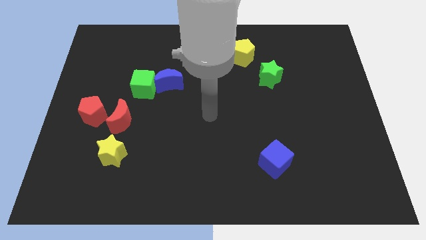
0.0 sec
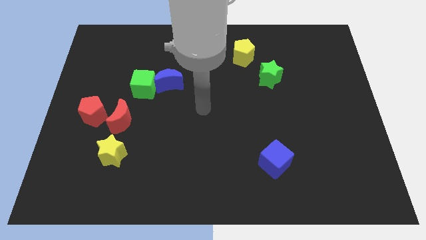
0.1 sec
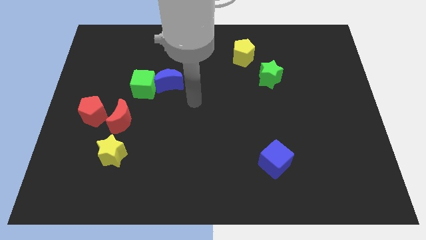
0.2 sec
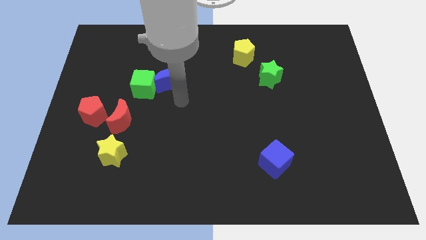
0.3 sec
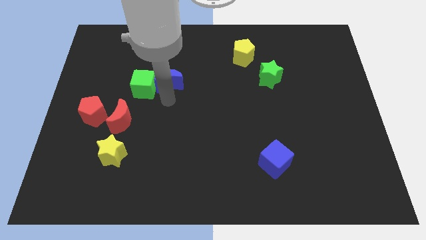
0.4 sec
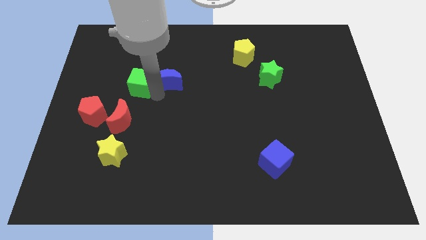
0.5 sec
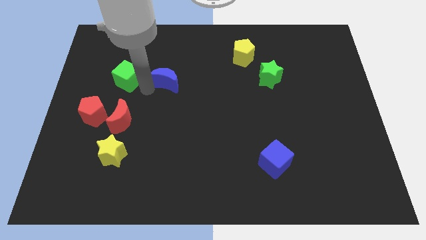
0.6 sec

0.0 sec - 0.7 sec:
separate the blue moon from the green cube

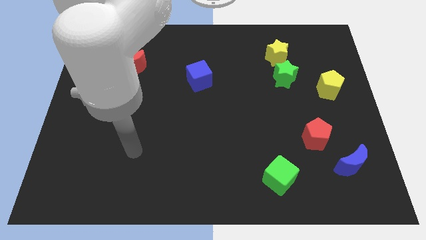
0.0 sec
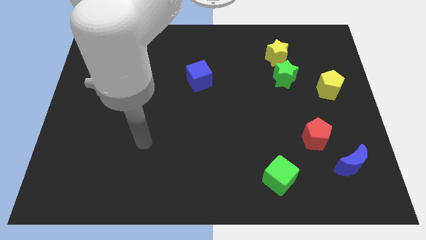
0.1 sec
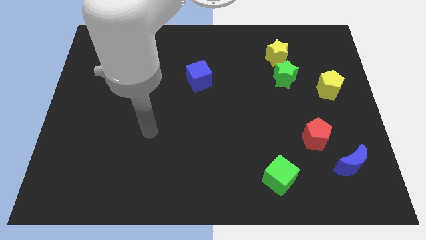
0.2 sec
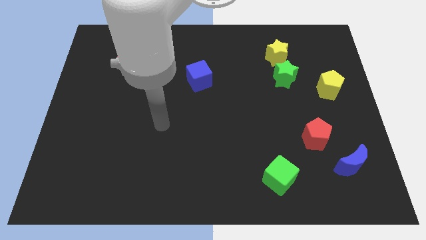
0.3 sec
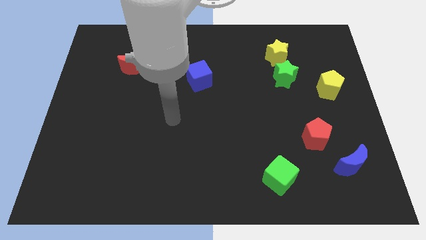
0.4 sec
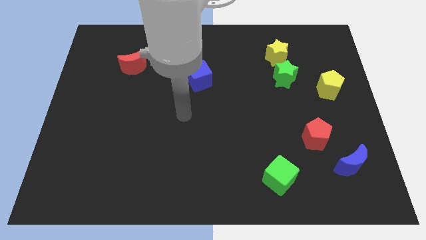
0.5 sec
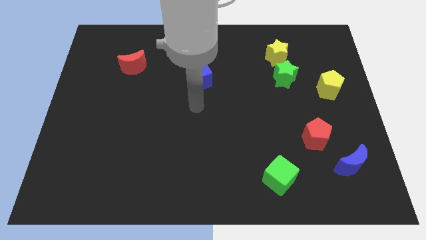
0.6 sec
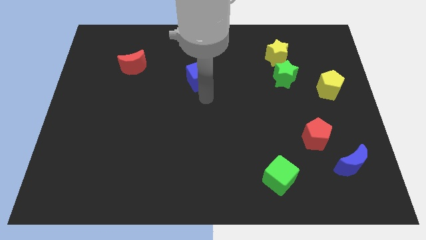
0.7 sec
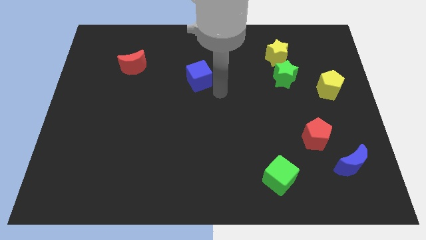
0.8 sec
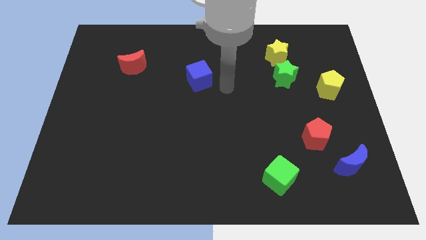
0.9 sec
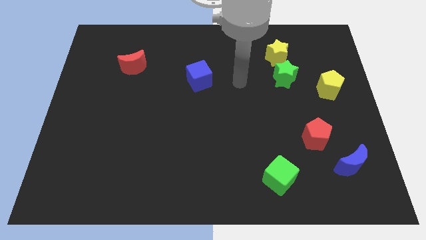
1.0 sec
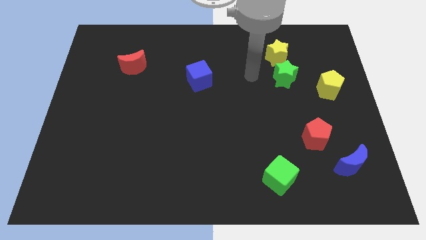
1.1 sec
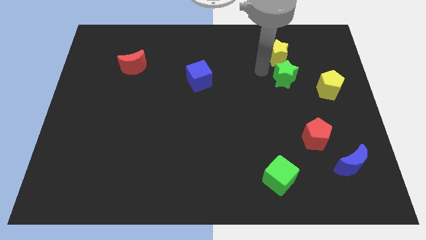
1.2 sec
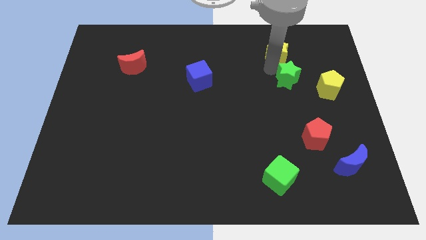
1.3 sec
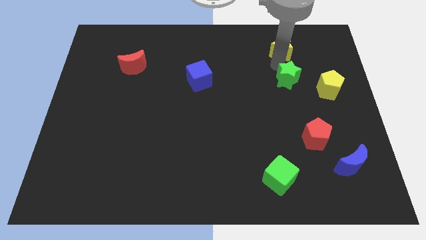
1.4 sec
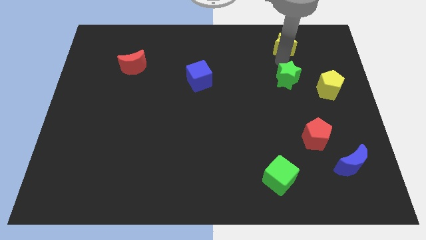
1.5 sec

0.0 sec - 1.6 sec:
pull the green star apart from the yellow star

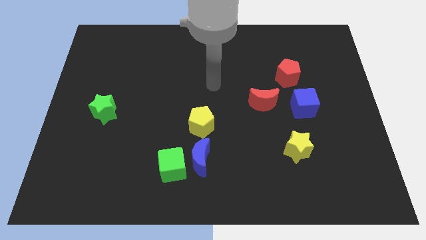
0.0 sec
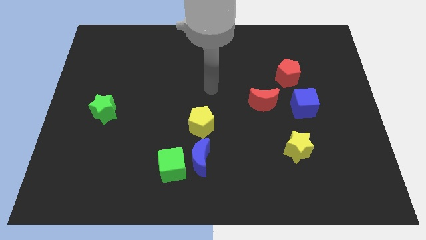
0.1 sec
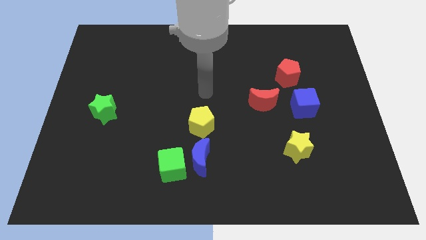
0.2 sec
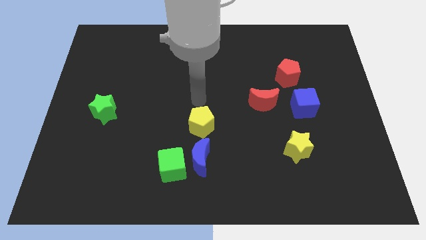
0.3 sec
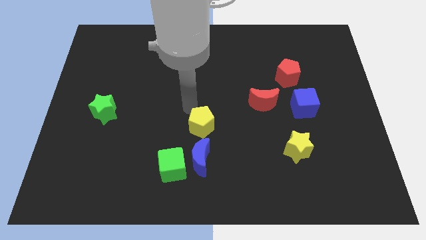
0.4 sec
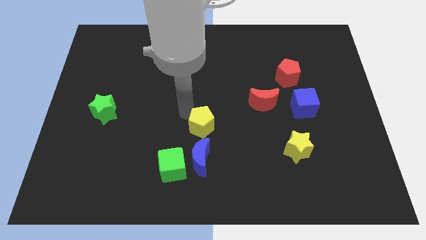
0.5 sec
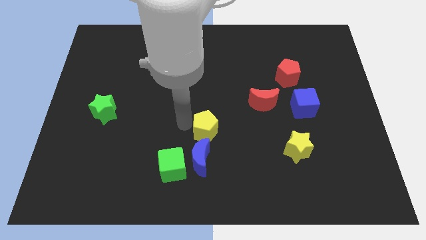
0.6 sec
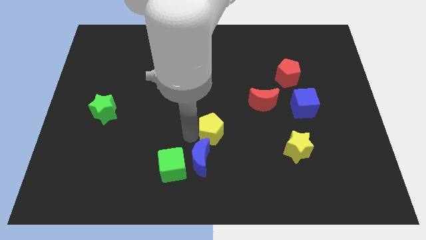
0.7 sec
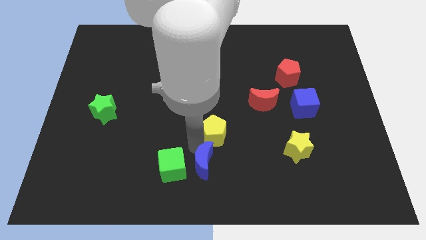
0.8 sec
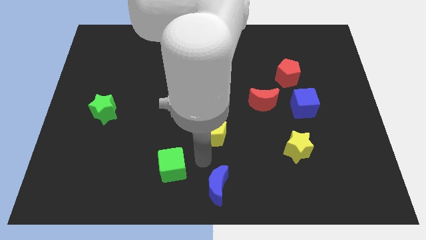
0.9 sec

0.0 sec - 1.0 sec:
separate the green cube from the blue moon

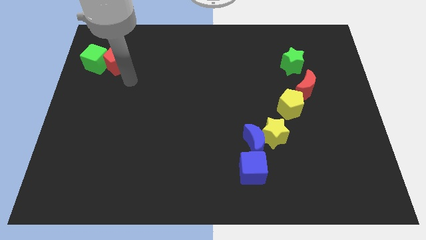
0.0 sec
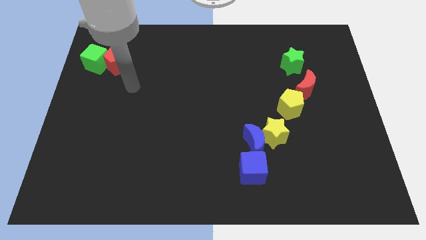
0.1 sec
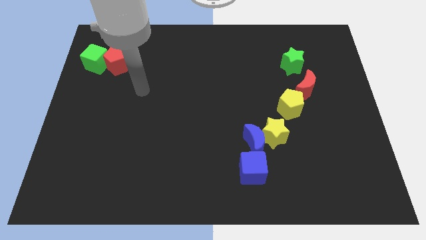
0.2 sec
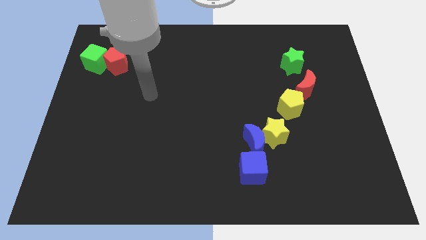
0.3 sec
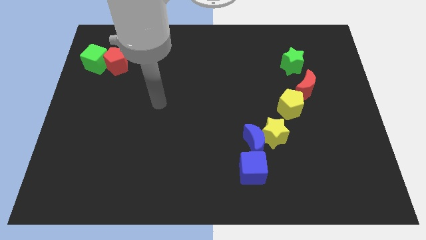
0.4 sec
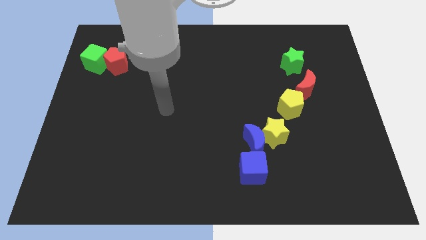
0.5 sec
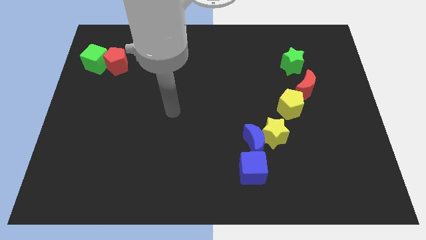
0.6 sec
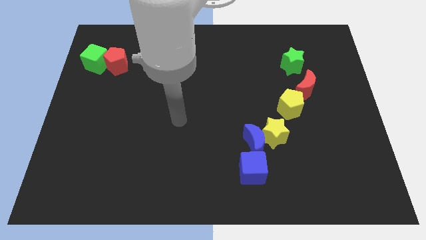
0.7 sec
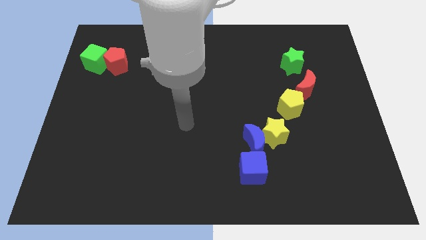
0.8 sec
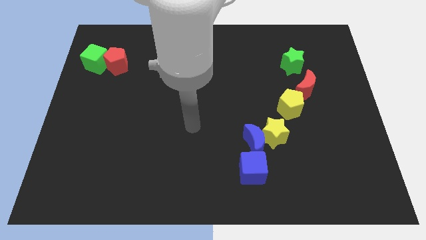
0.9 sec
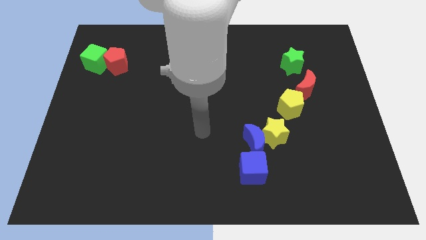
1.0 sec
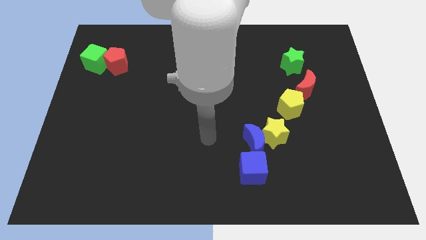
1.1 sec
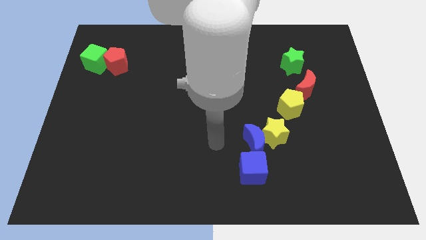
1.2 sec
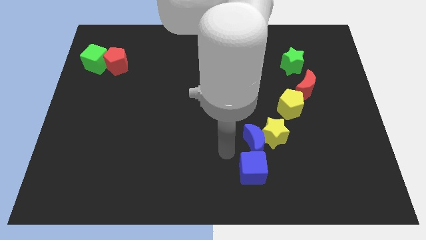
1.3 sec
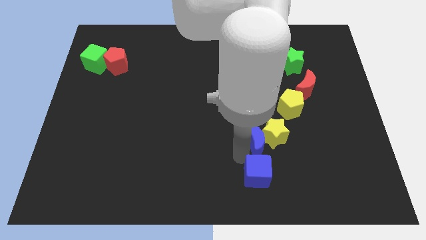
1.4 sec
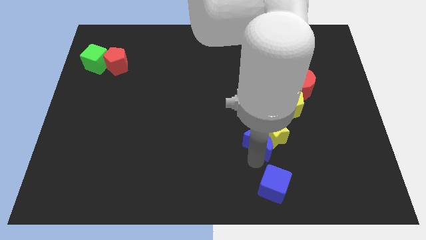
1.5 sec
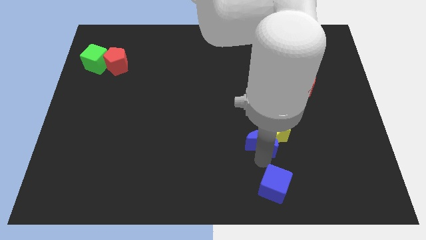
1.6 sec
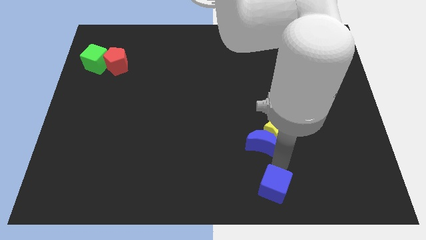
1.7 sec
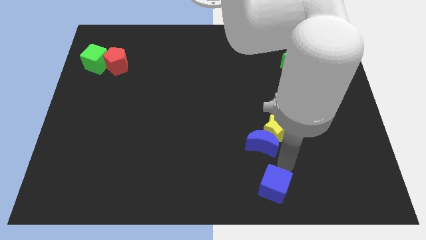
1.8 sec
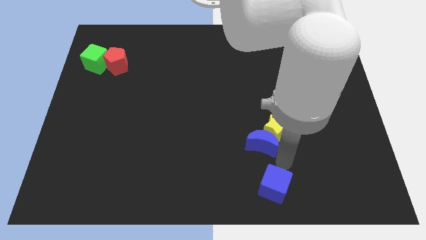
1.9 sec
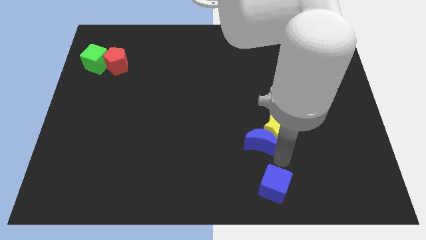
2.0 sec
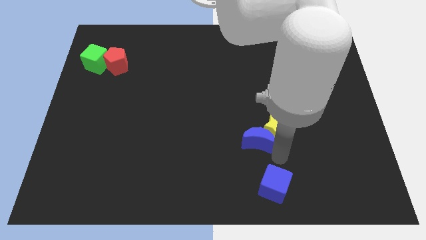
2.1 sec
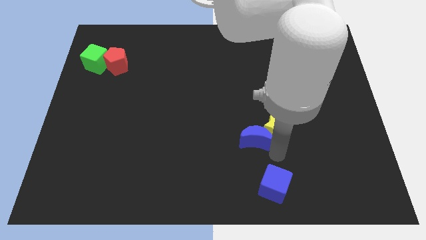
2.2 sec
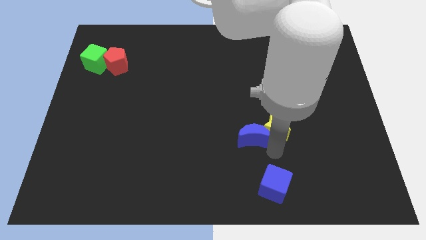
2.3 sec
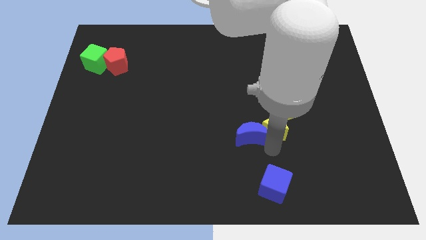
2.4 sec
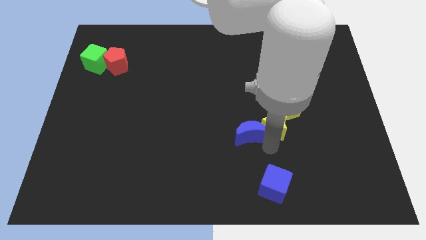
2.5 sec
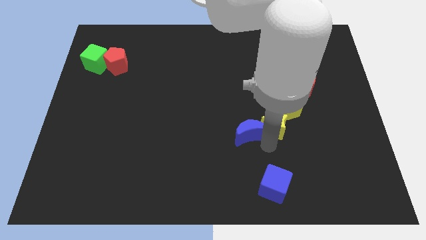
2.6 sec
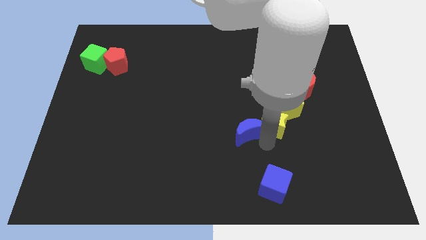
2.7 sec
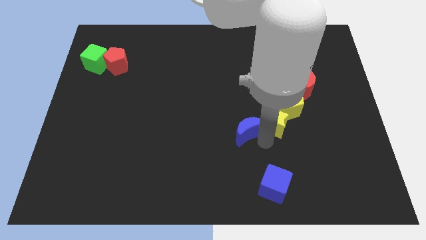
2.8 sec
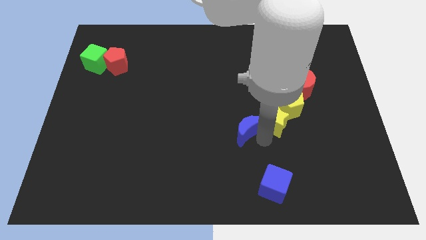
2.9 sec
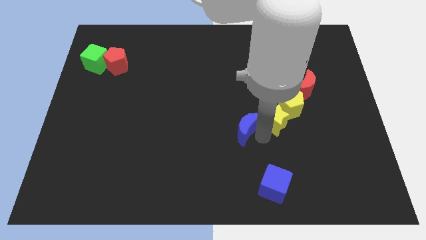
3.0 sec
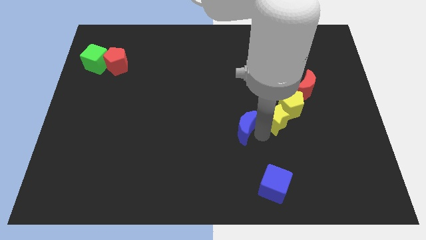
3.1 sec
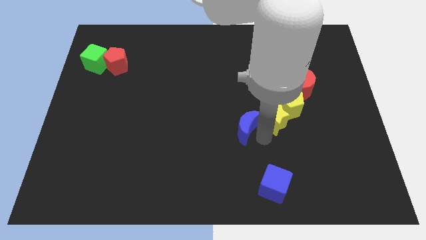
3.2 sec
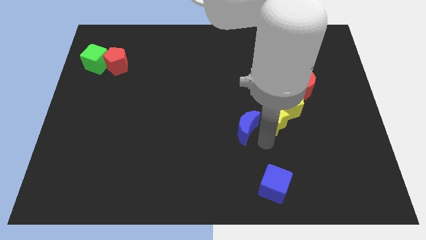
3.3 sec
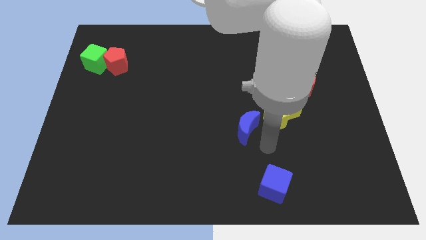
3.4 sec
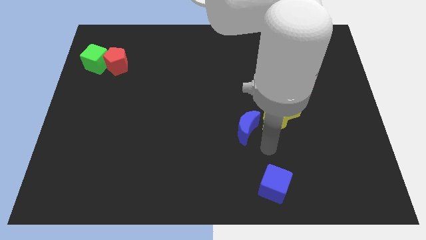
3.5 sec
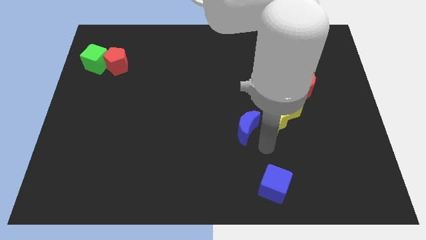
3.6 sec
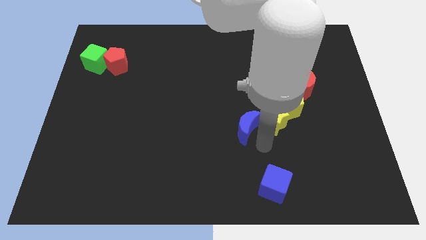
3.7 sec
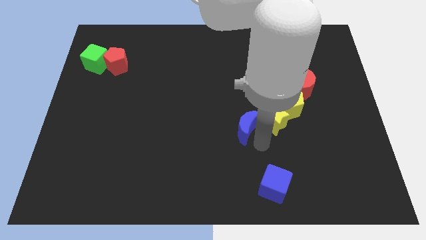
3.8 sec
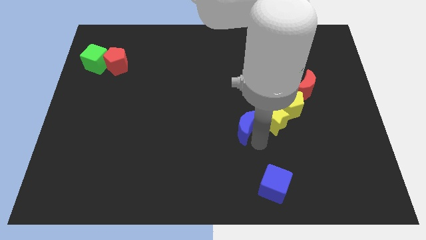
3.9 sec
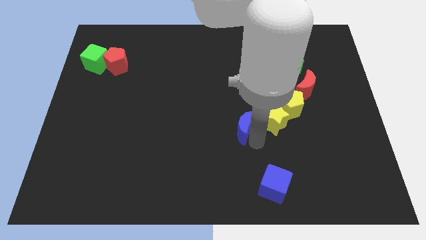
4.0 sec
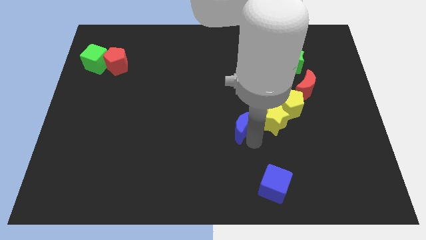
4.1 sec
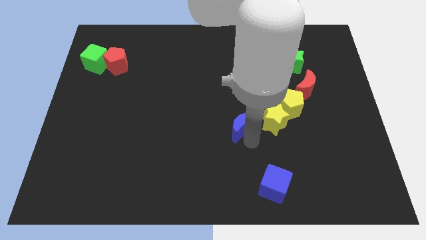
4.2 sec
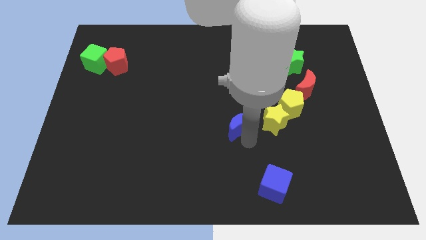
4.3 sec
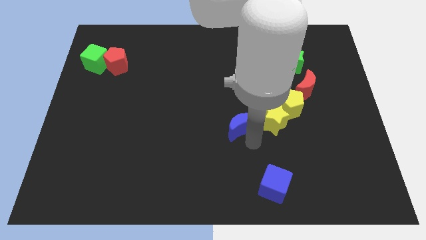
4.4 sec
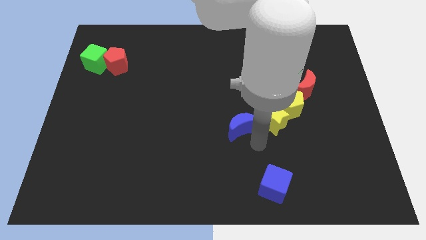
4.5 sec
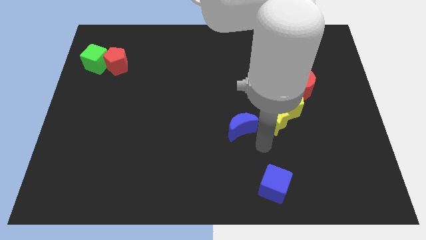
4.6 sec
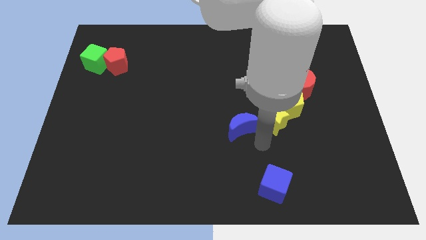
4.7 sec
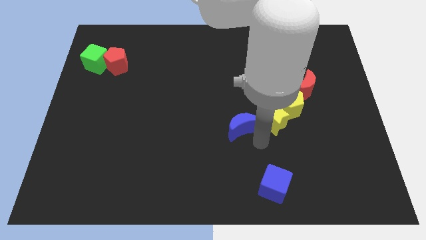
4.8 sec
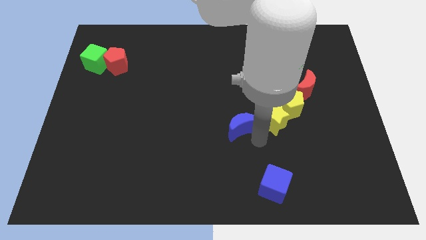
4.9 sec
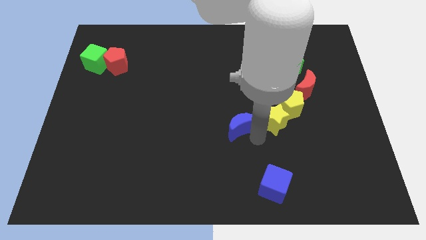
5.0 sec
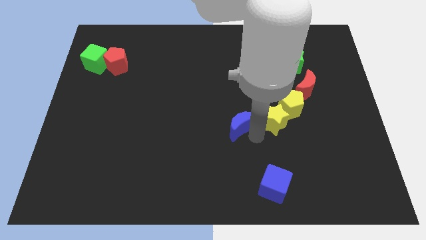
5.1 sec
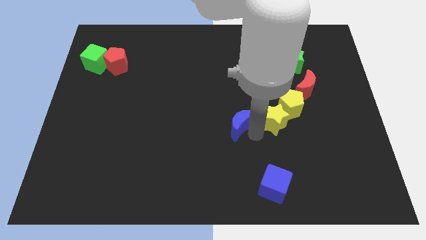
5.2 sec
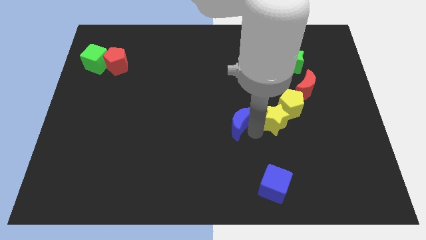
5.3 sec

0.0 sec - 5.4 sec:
pull the blue moon apart from the yellow star and blue cube

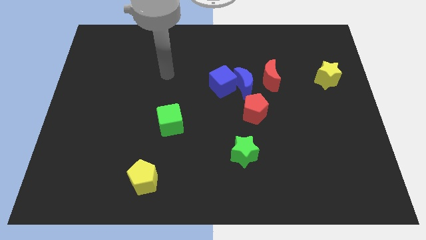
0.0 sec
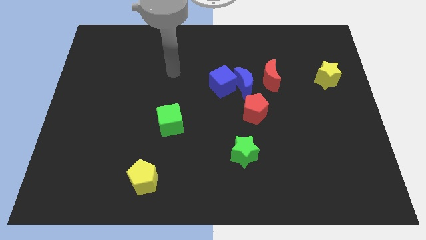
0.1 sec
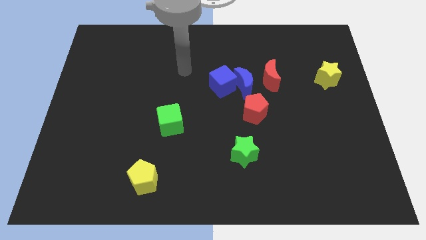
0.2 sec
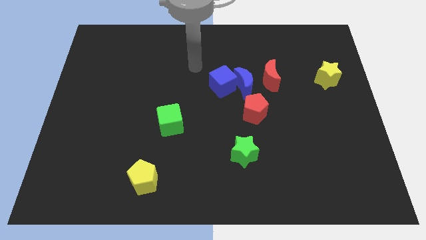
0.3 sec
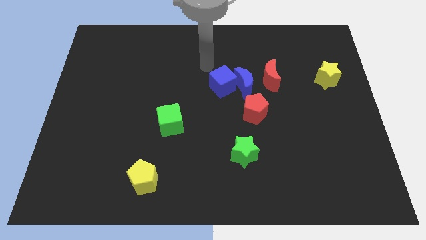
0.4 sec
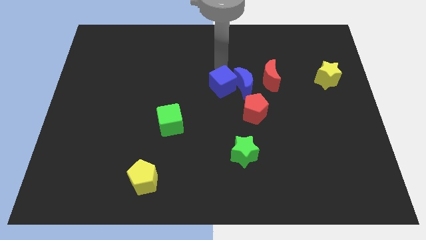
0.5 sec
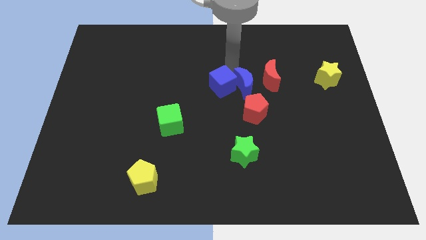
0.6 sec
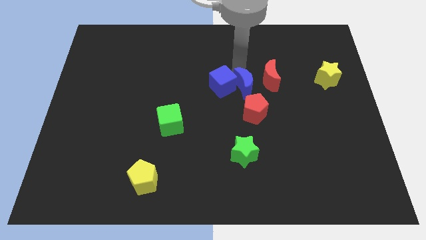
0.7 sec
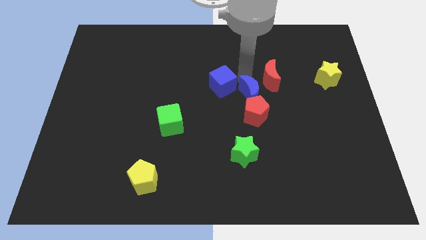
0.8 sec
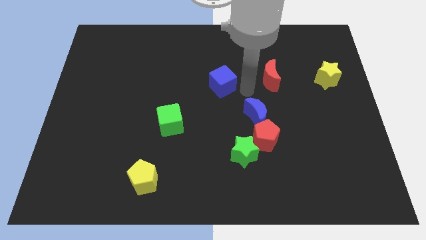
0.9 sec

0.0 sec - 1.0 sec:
separate the blue cube from the blue moon
